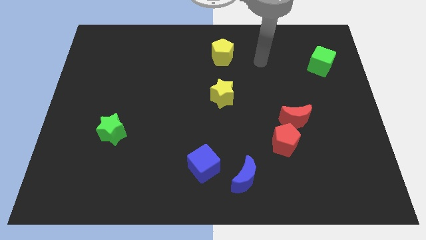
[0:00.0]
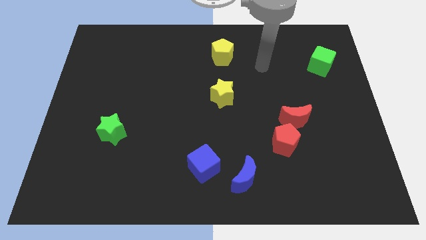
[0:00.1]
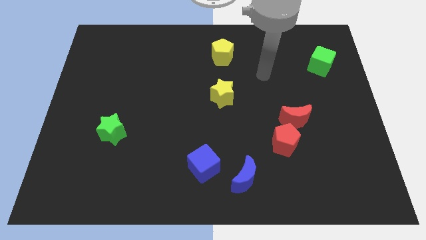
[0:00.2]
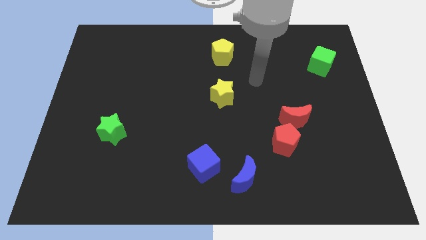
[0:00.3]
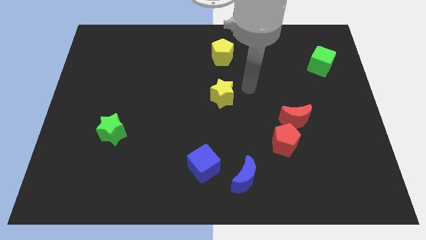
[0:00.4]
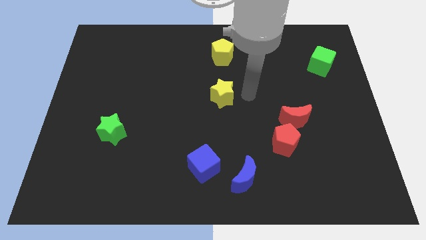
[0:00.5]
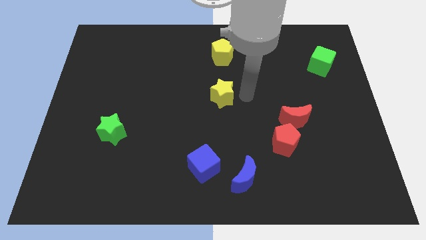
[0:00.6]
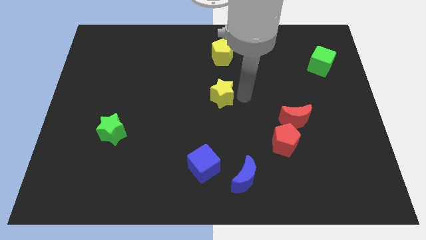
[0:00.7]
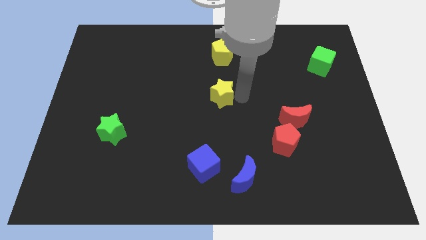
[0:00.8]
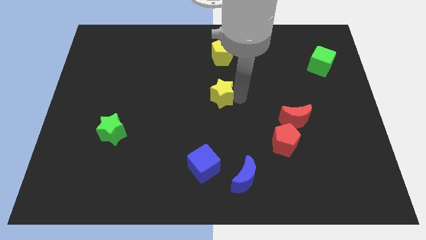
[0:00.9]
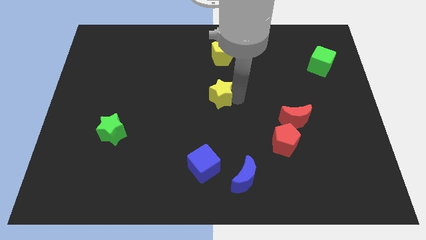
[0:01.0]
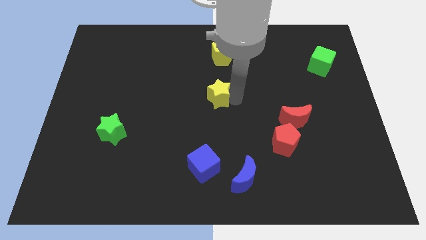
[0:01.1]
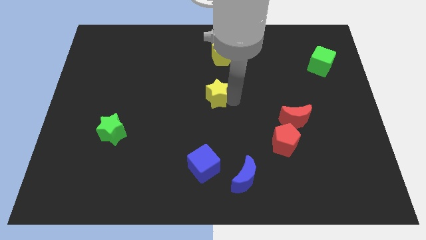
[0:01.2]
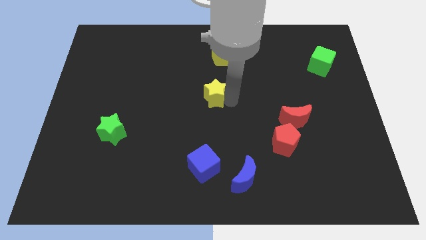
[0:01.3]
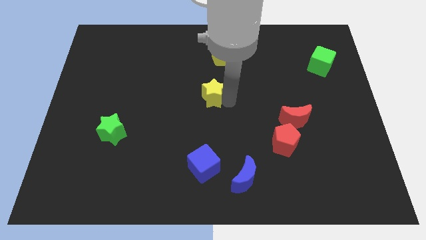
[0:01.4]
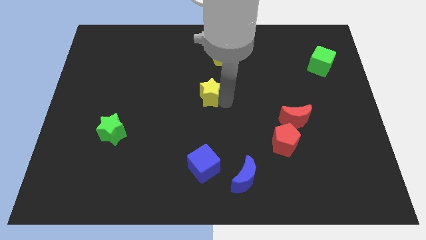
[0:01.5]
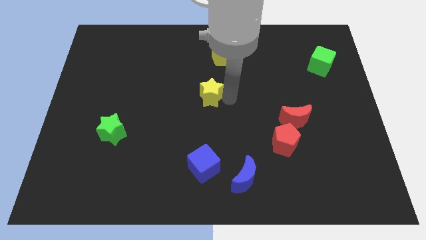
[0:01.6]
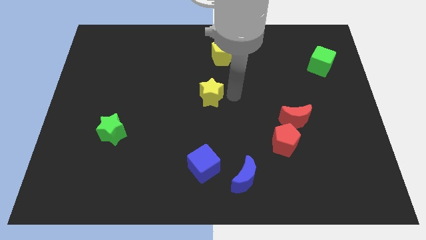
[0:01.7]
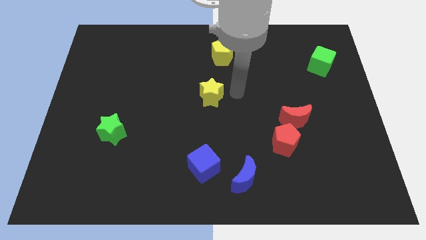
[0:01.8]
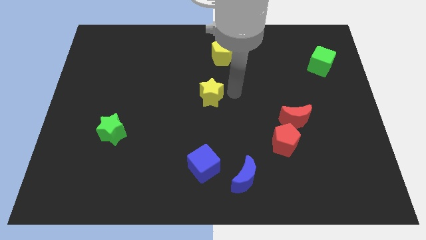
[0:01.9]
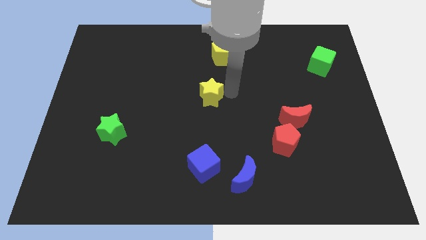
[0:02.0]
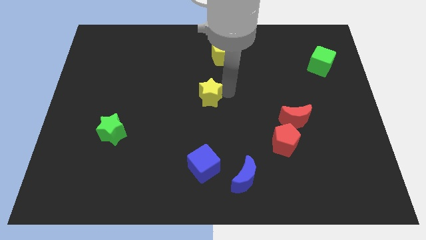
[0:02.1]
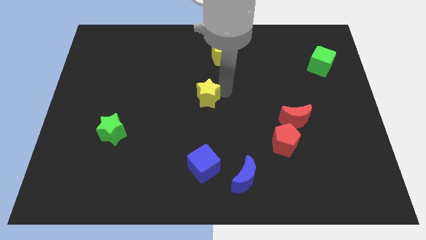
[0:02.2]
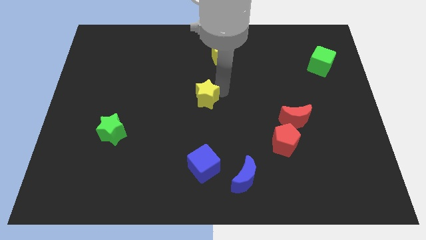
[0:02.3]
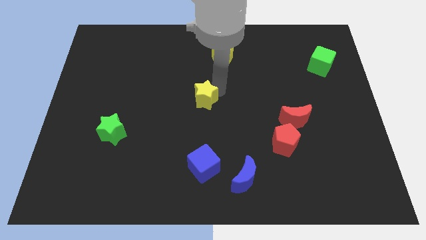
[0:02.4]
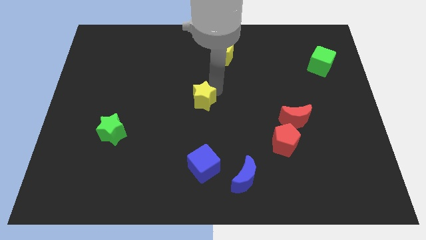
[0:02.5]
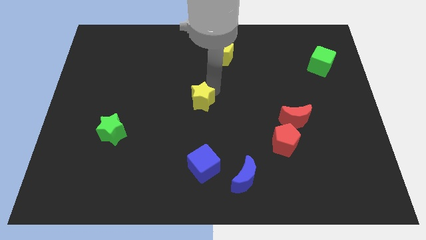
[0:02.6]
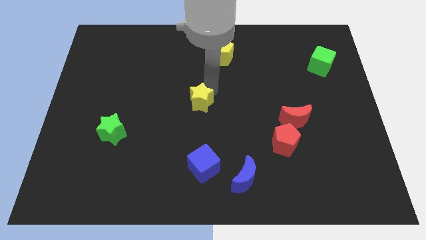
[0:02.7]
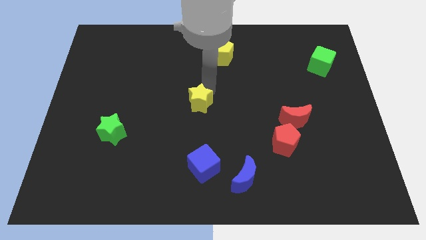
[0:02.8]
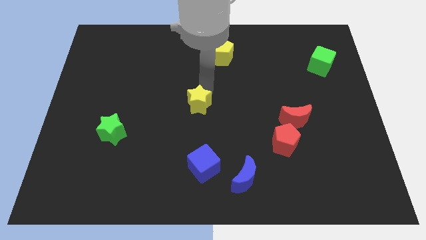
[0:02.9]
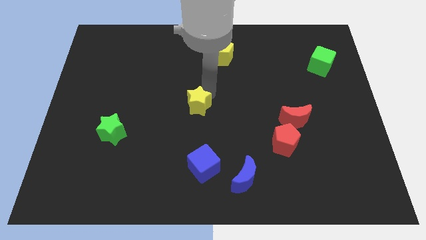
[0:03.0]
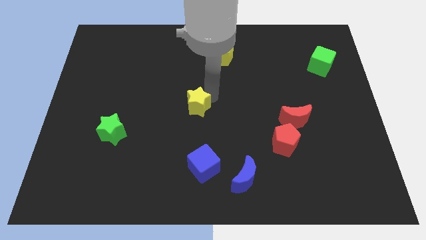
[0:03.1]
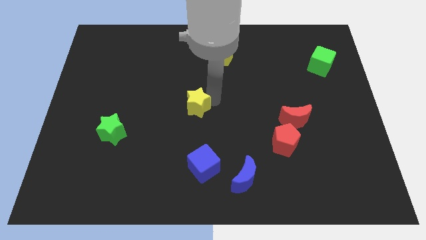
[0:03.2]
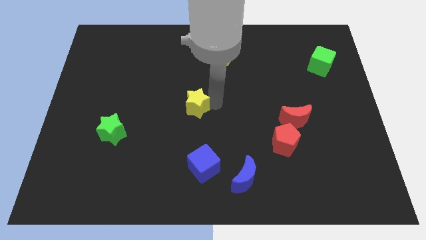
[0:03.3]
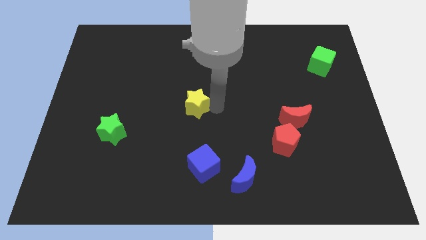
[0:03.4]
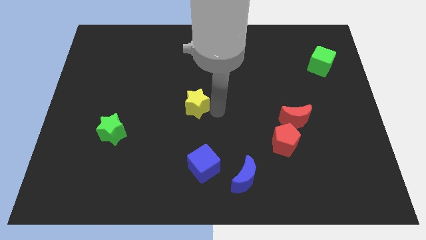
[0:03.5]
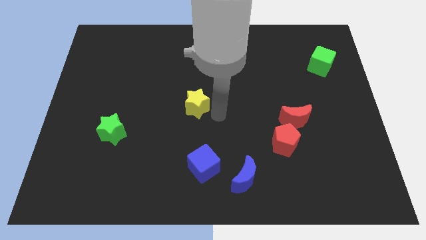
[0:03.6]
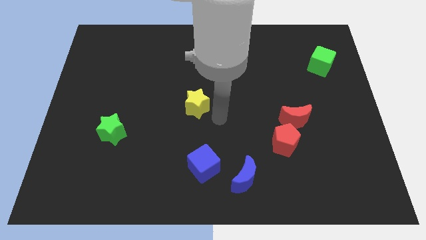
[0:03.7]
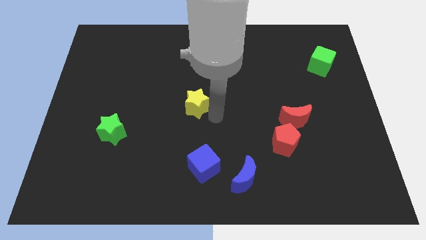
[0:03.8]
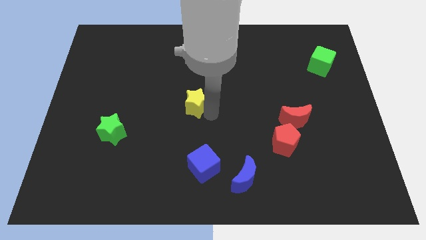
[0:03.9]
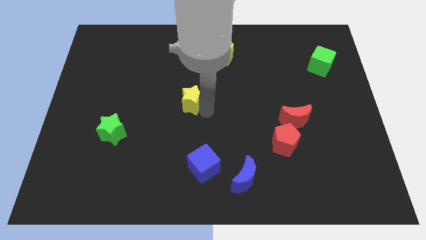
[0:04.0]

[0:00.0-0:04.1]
slide the yellow star slightly left

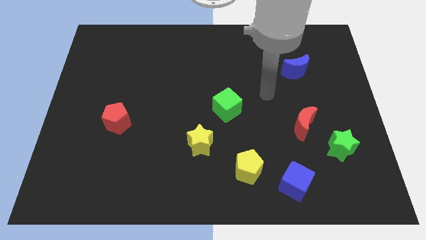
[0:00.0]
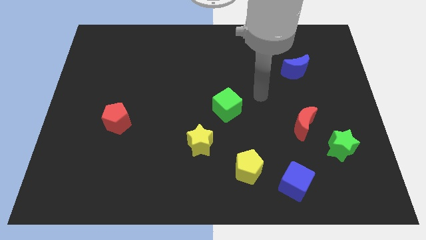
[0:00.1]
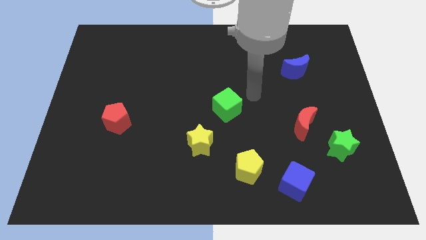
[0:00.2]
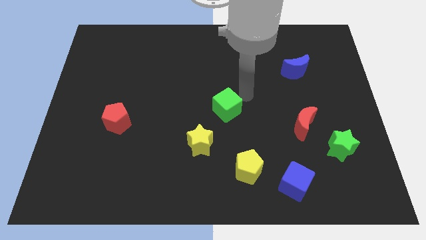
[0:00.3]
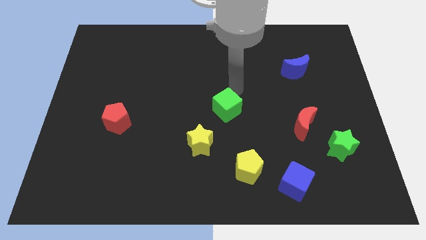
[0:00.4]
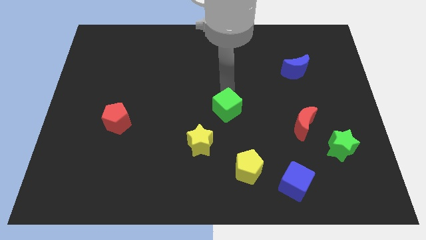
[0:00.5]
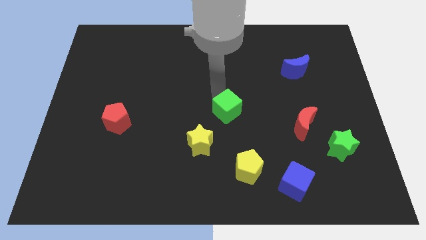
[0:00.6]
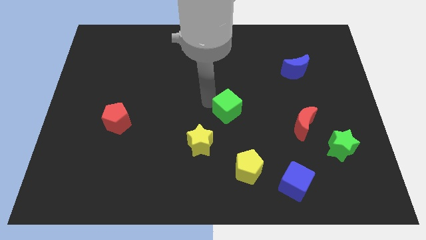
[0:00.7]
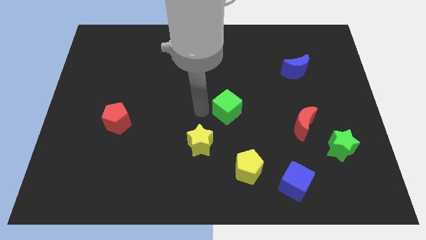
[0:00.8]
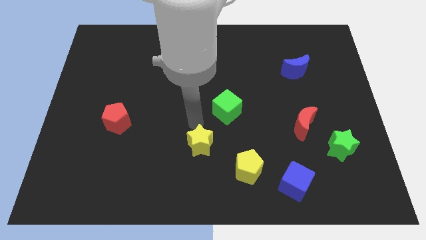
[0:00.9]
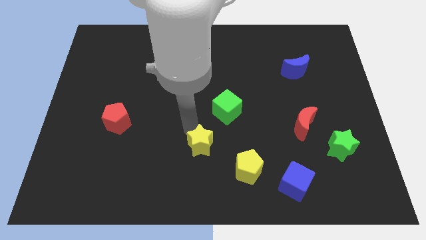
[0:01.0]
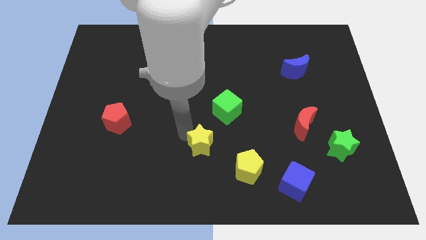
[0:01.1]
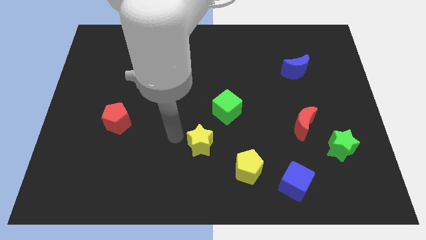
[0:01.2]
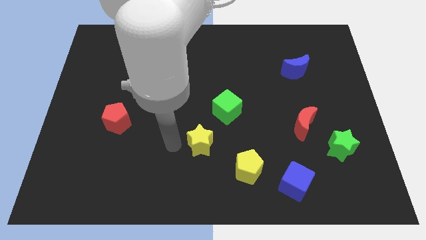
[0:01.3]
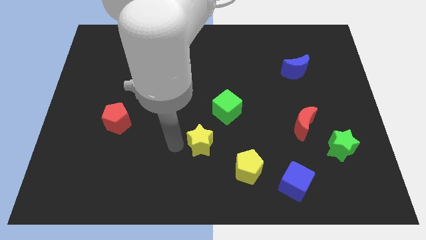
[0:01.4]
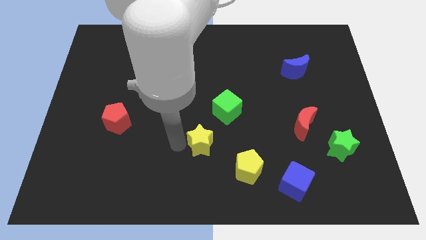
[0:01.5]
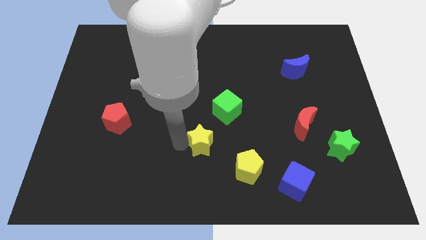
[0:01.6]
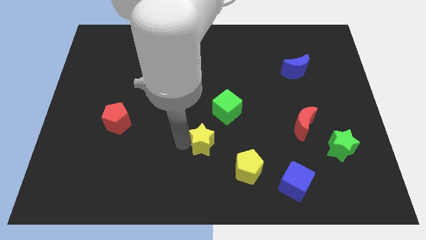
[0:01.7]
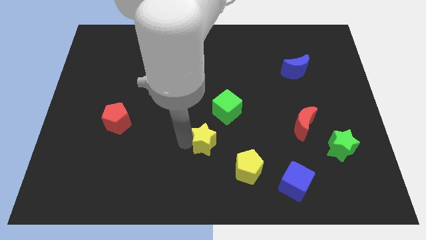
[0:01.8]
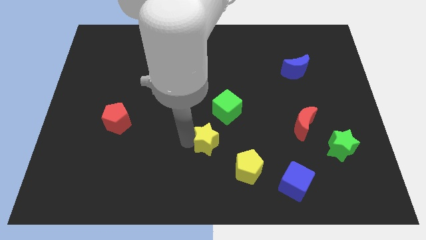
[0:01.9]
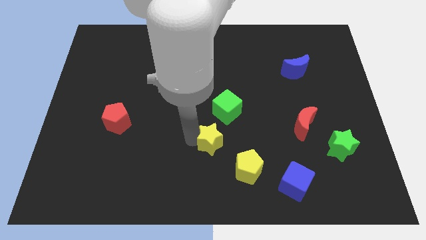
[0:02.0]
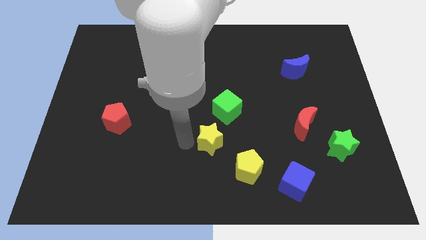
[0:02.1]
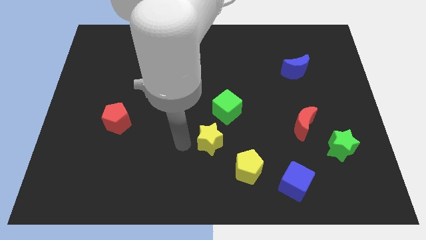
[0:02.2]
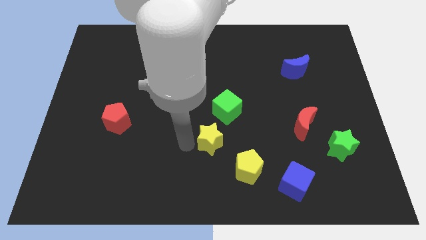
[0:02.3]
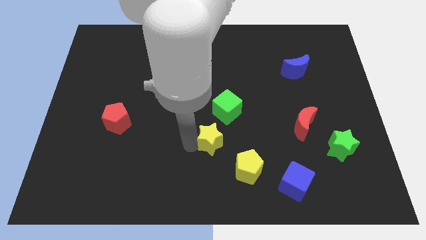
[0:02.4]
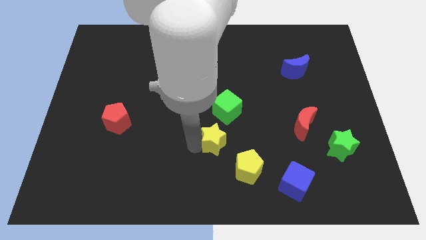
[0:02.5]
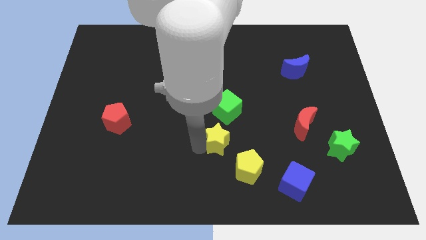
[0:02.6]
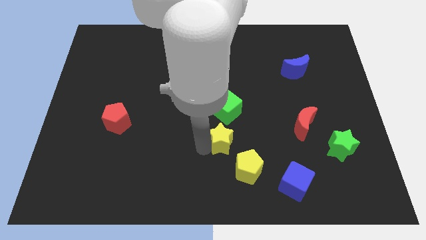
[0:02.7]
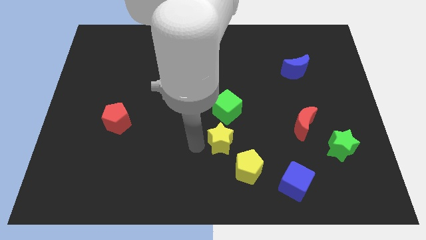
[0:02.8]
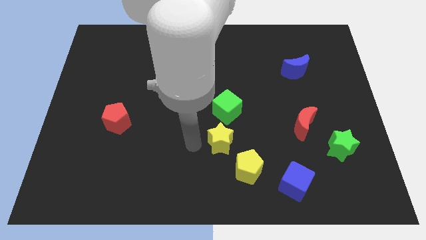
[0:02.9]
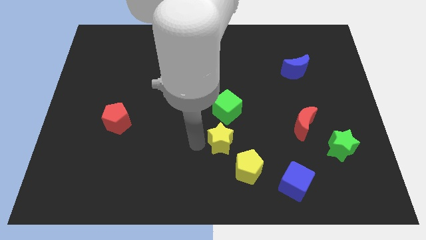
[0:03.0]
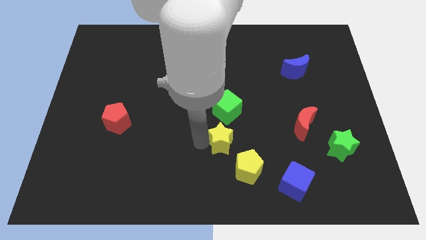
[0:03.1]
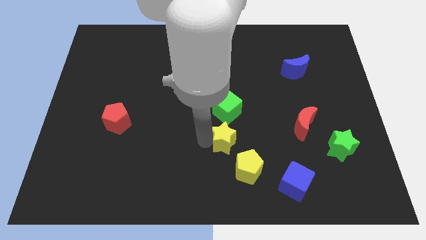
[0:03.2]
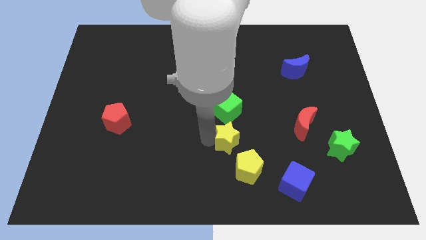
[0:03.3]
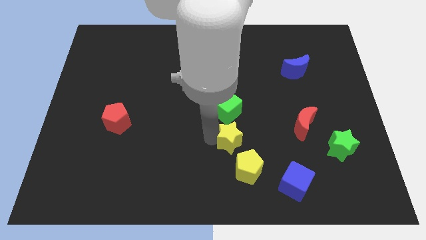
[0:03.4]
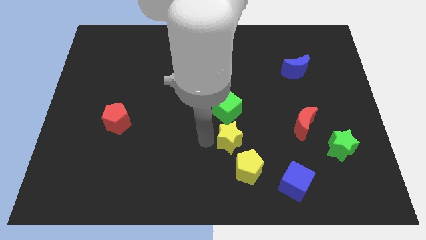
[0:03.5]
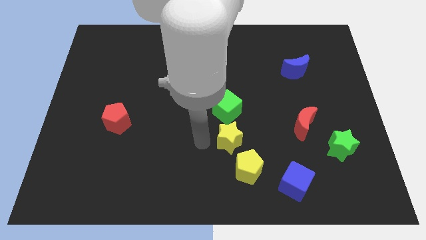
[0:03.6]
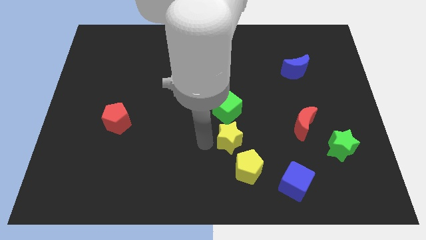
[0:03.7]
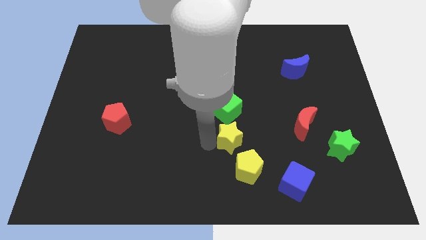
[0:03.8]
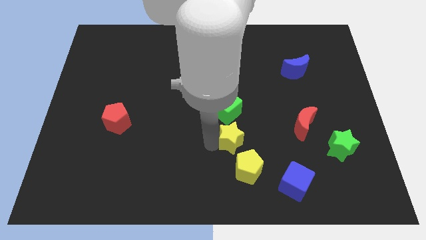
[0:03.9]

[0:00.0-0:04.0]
slide the yellow star right somewhat

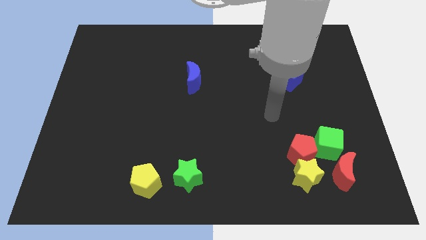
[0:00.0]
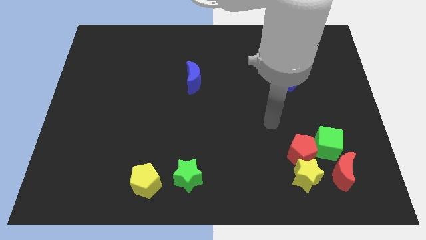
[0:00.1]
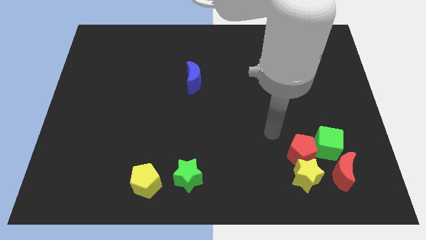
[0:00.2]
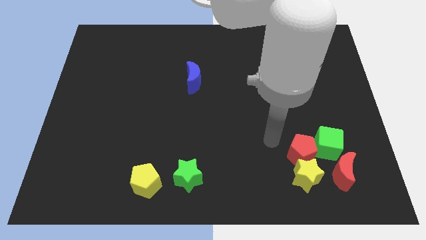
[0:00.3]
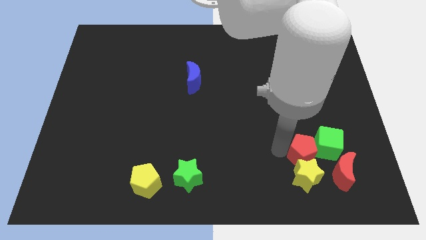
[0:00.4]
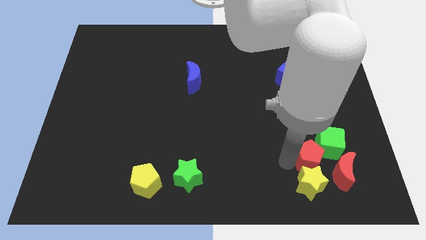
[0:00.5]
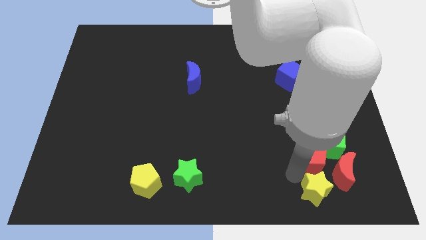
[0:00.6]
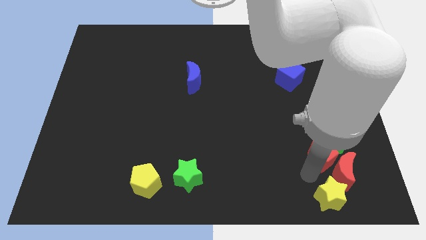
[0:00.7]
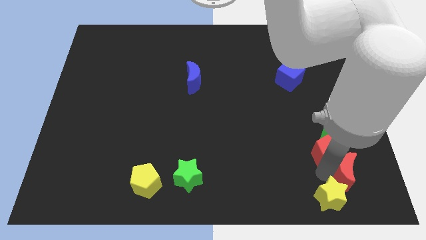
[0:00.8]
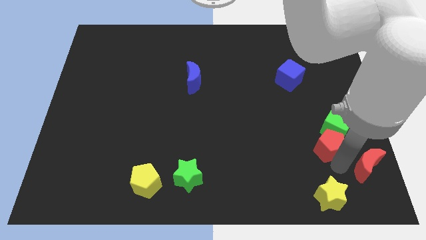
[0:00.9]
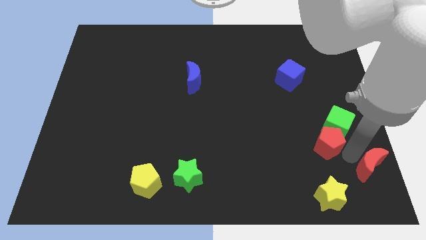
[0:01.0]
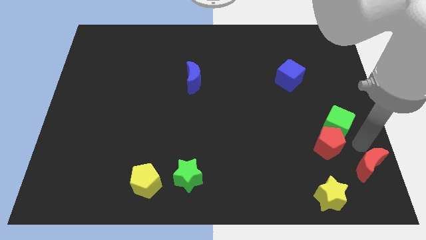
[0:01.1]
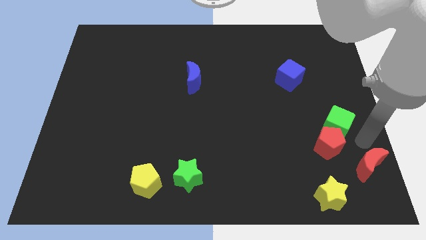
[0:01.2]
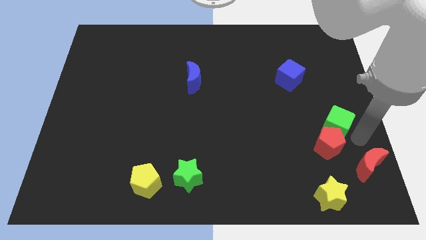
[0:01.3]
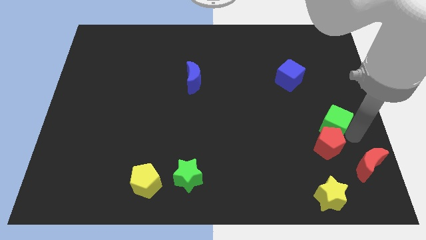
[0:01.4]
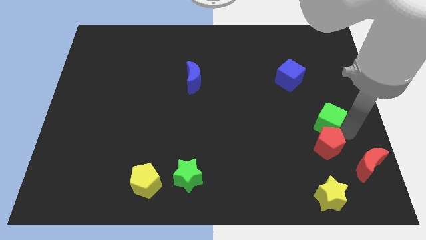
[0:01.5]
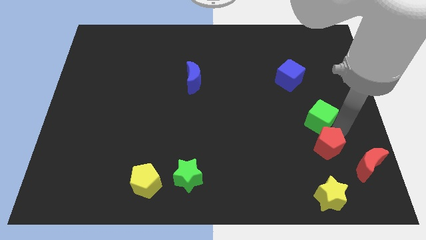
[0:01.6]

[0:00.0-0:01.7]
slightly move the green cube upwards
